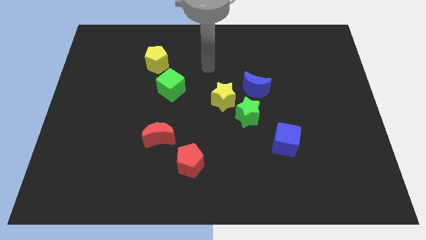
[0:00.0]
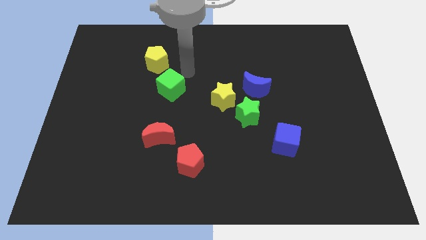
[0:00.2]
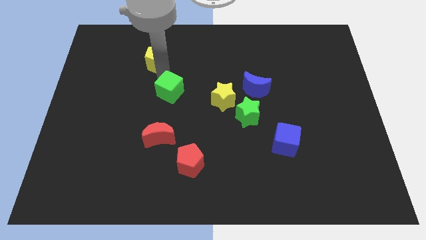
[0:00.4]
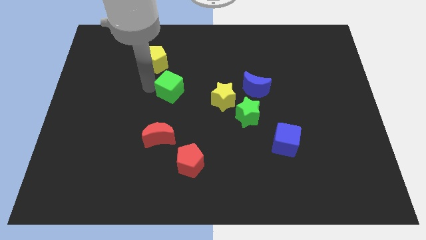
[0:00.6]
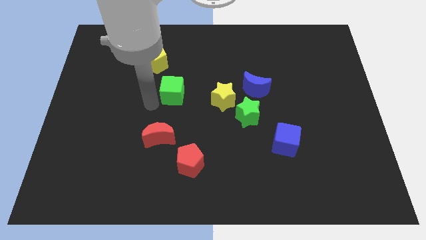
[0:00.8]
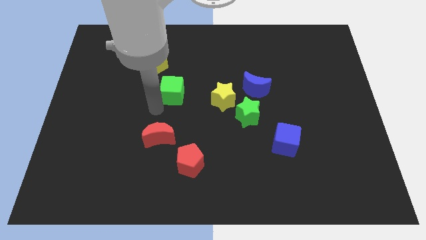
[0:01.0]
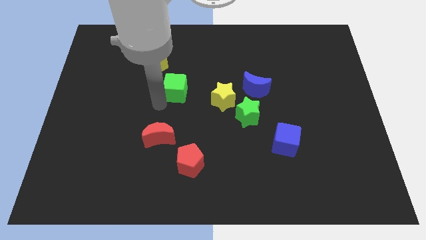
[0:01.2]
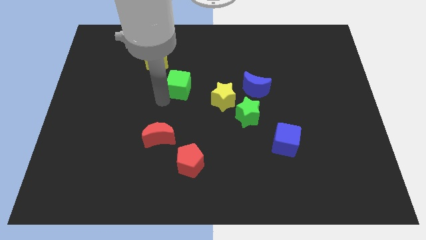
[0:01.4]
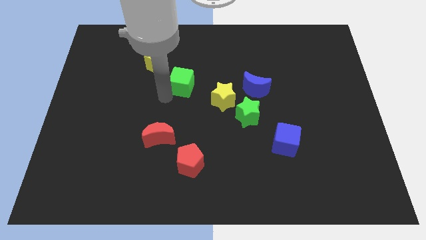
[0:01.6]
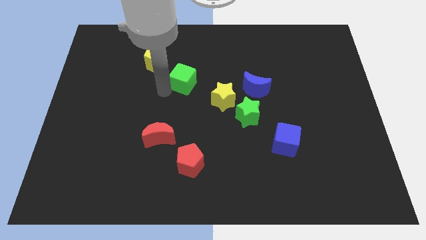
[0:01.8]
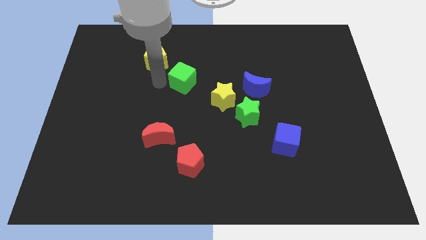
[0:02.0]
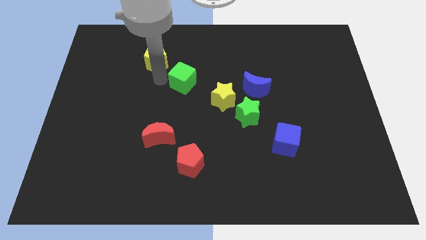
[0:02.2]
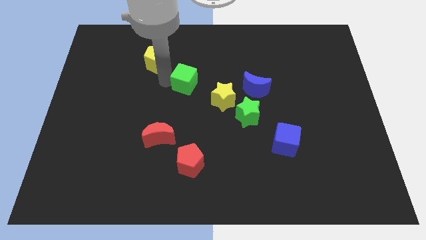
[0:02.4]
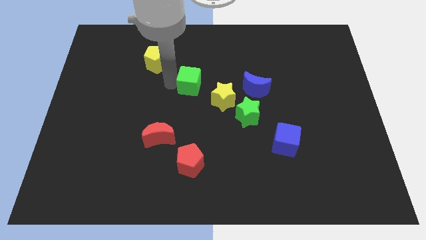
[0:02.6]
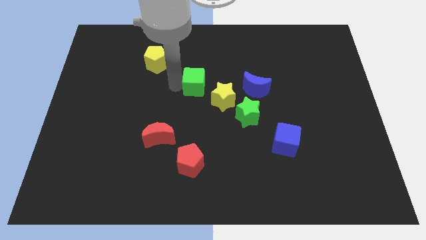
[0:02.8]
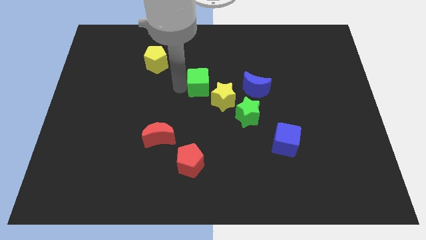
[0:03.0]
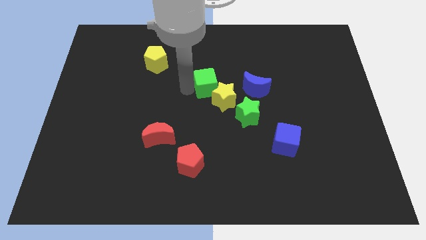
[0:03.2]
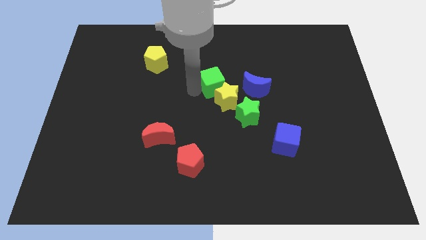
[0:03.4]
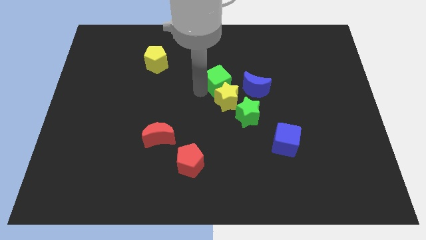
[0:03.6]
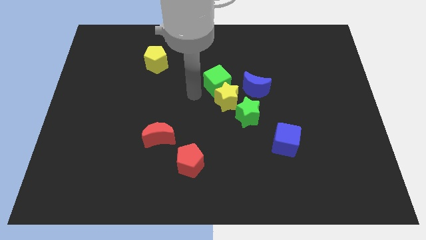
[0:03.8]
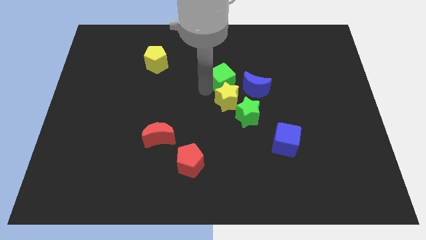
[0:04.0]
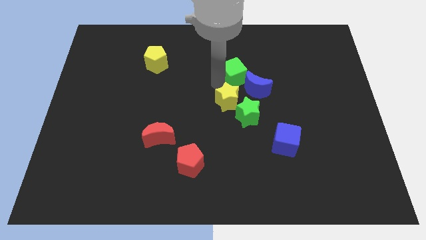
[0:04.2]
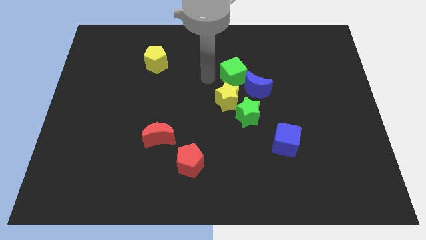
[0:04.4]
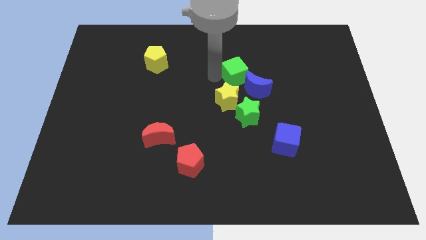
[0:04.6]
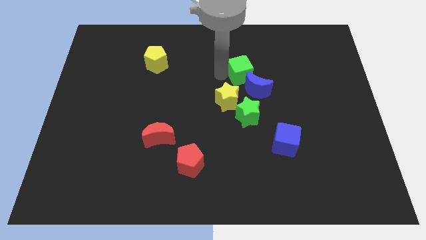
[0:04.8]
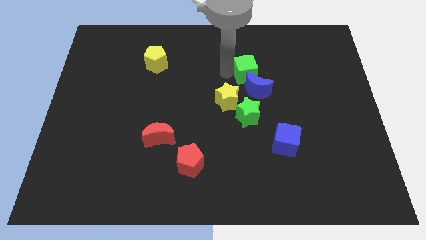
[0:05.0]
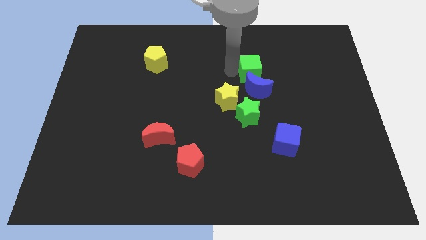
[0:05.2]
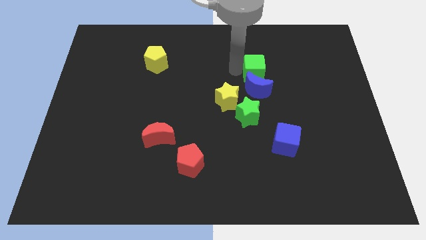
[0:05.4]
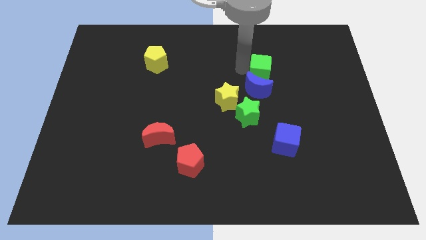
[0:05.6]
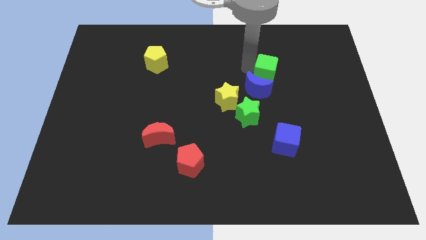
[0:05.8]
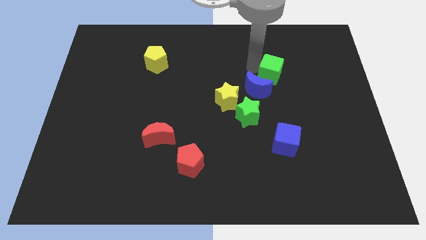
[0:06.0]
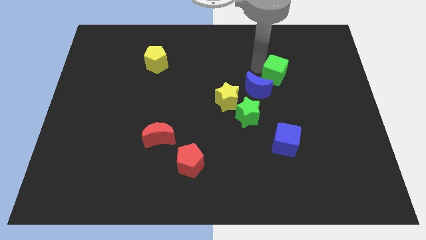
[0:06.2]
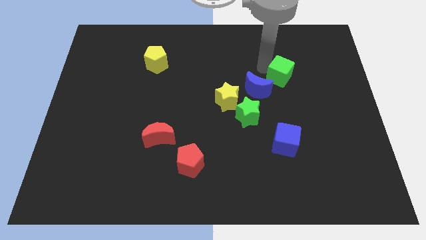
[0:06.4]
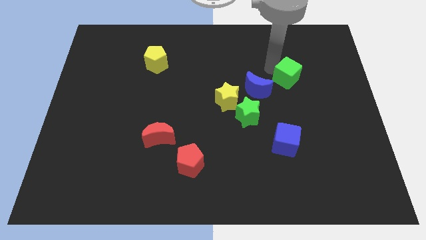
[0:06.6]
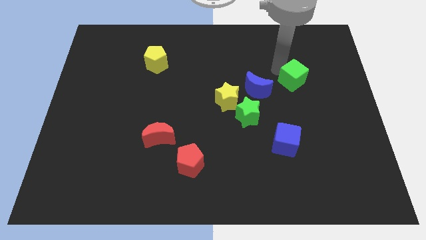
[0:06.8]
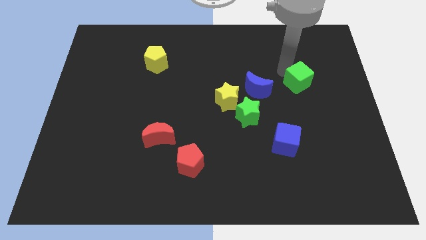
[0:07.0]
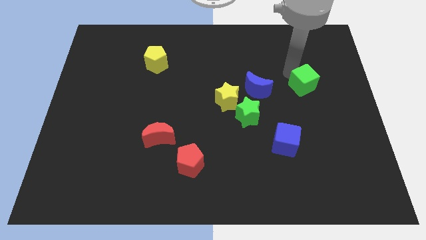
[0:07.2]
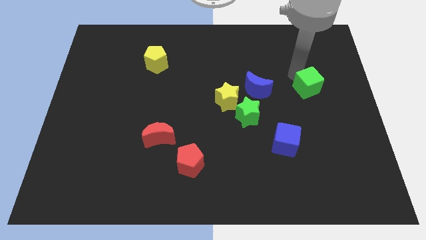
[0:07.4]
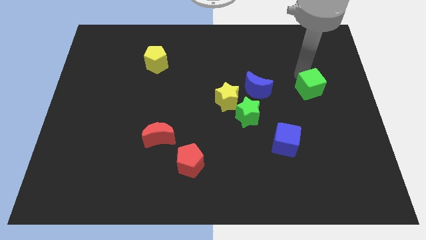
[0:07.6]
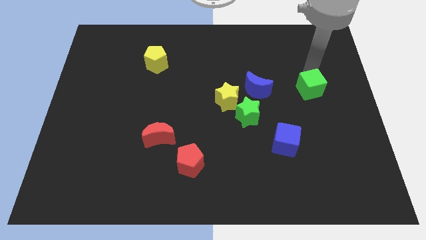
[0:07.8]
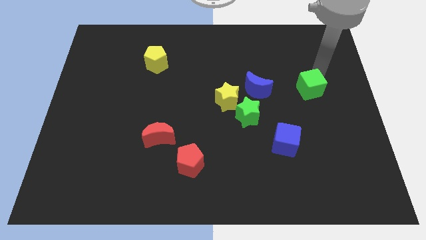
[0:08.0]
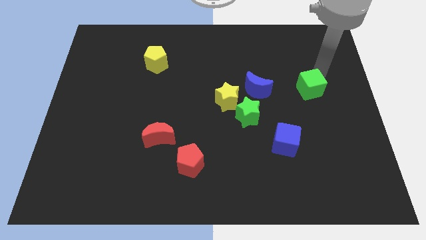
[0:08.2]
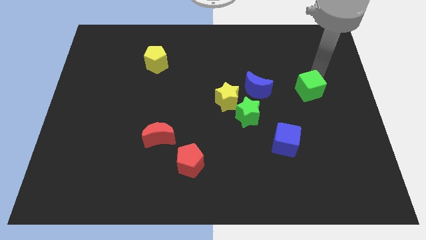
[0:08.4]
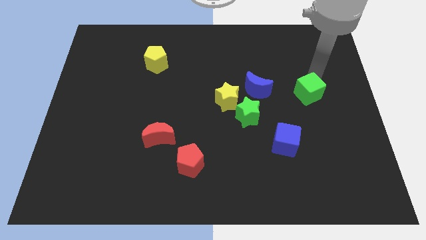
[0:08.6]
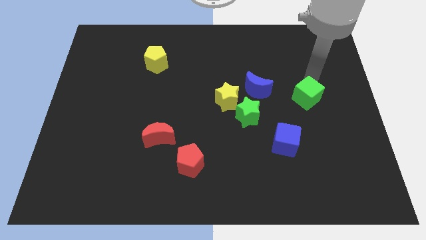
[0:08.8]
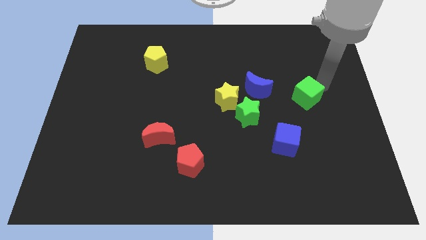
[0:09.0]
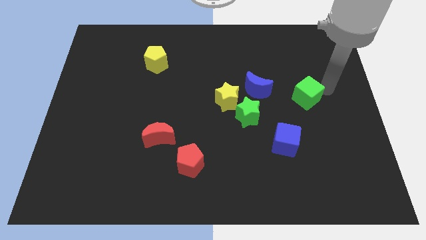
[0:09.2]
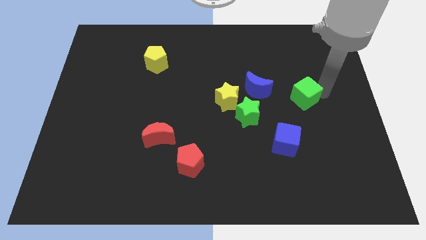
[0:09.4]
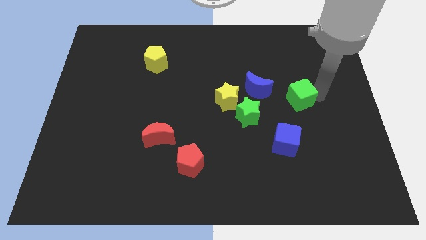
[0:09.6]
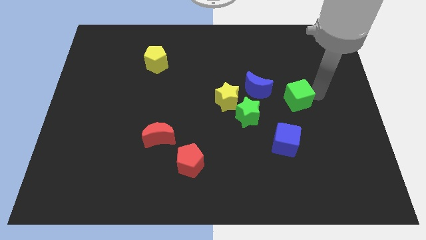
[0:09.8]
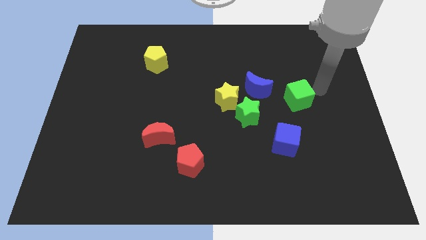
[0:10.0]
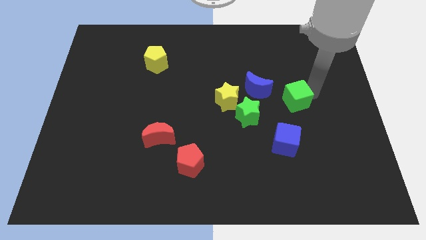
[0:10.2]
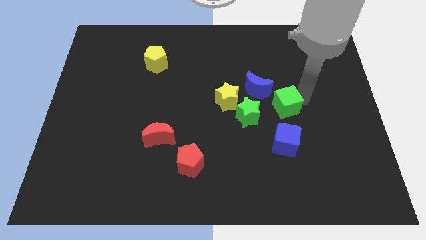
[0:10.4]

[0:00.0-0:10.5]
push the green cube to the top right of the green star

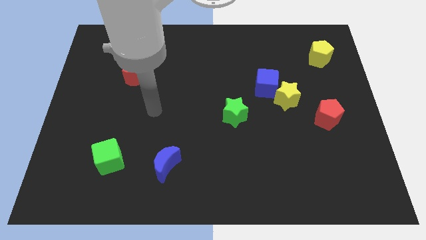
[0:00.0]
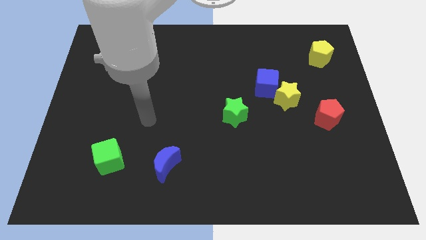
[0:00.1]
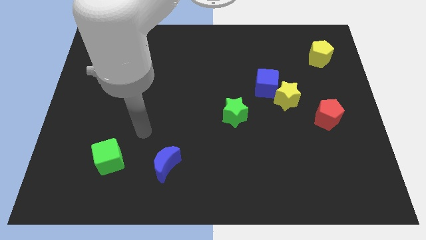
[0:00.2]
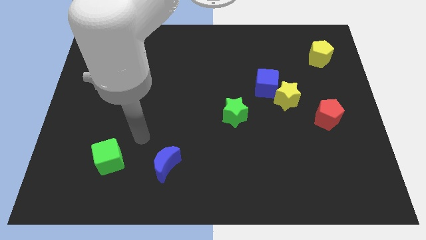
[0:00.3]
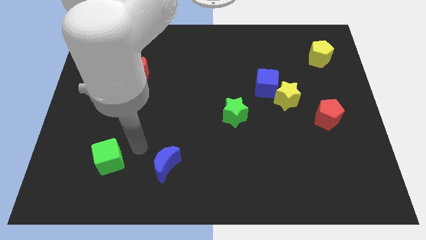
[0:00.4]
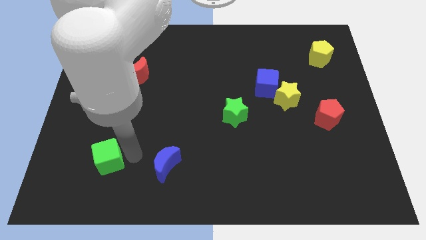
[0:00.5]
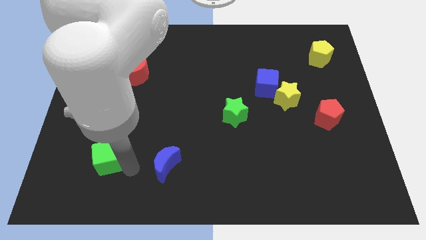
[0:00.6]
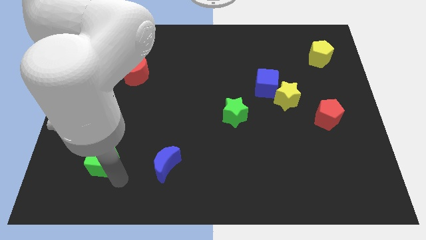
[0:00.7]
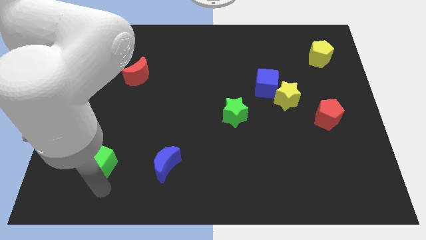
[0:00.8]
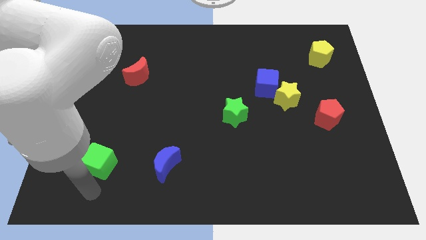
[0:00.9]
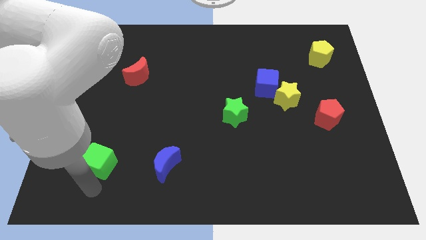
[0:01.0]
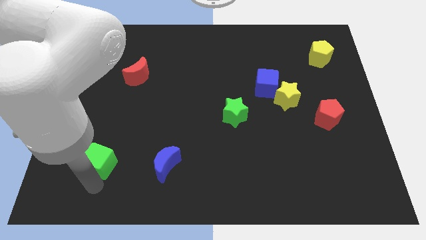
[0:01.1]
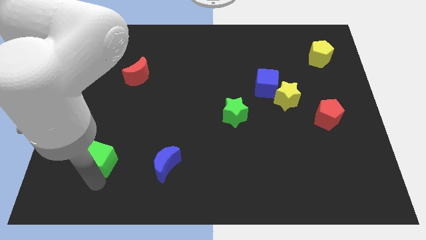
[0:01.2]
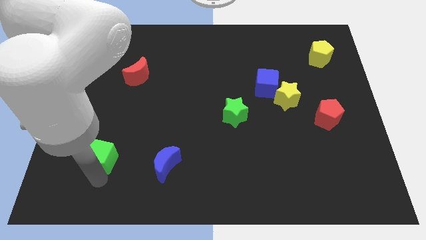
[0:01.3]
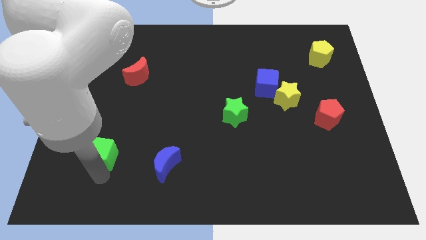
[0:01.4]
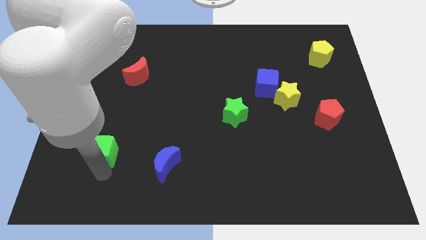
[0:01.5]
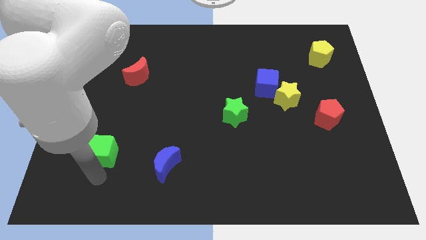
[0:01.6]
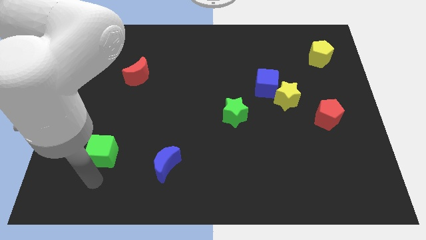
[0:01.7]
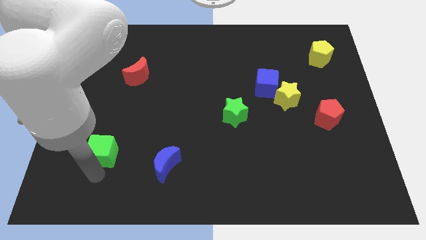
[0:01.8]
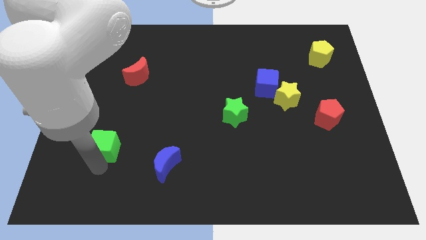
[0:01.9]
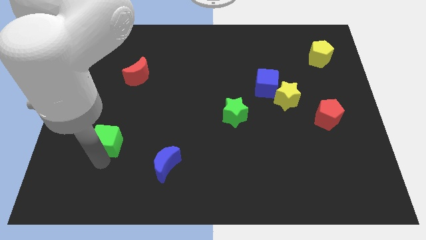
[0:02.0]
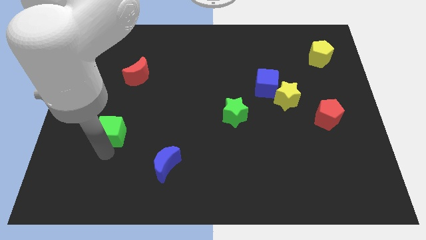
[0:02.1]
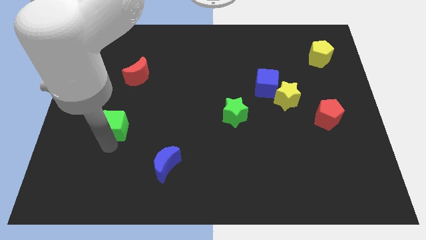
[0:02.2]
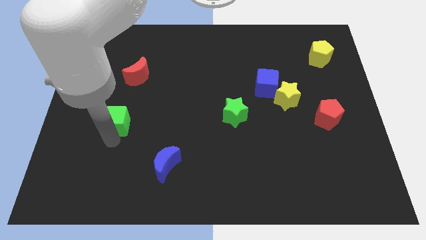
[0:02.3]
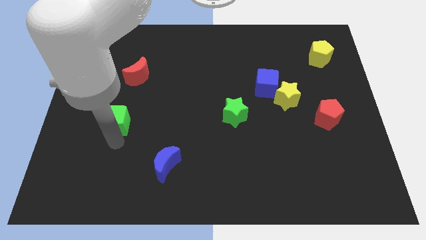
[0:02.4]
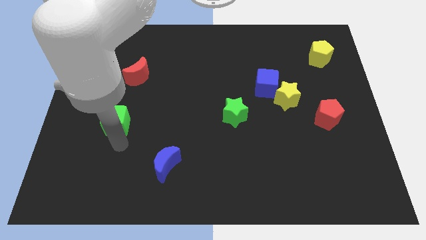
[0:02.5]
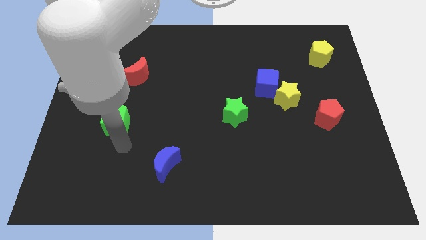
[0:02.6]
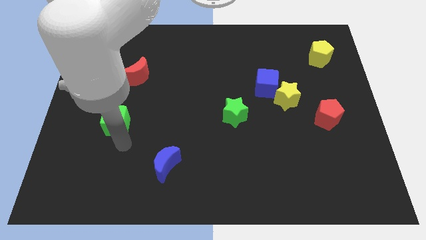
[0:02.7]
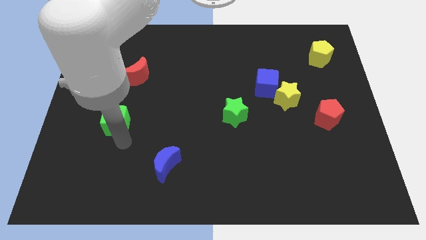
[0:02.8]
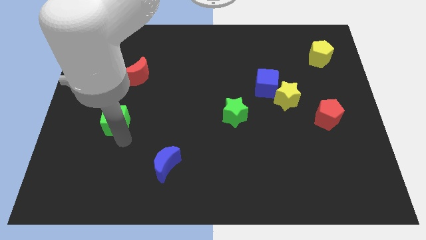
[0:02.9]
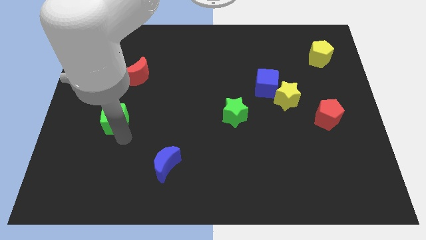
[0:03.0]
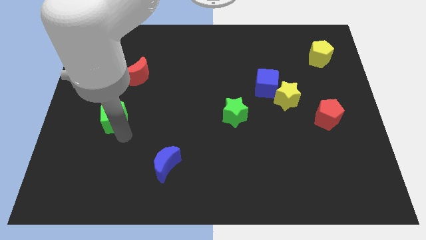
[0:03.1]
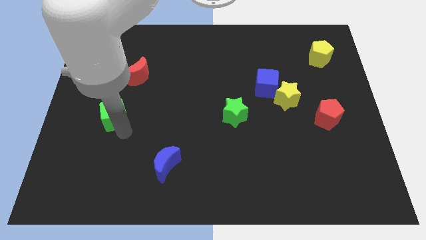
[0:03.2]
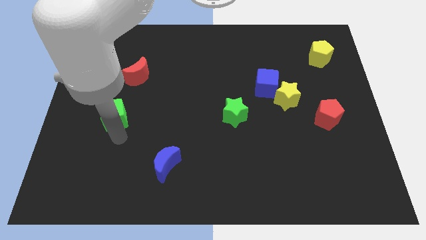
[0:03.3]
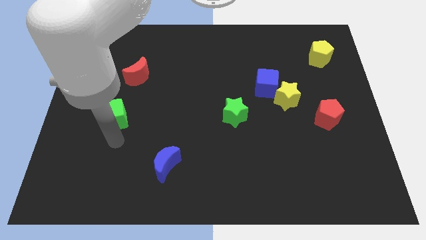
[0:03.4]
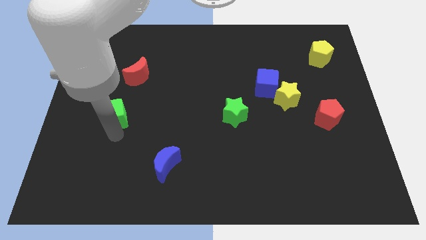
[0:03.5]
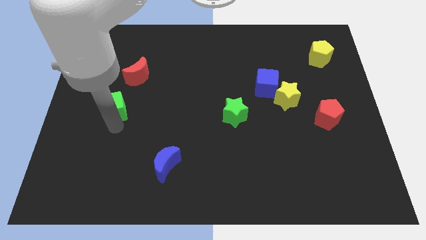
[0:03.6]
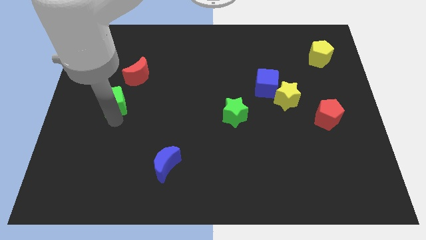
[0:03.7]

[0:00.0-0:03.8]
slide the green cube to the bottom left of the red moon
